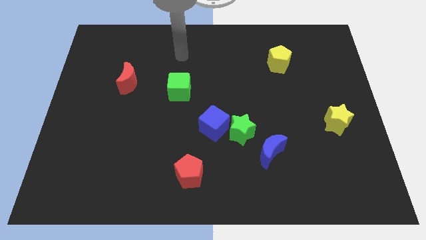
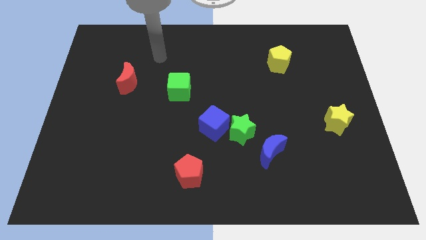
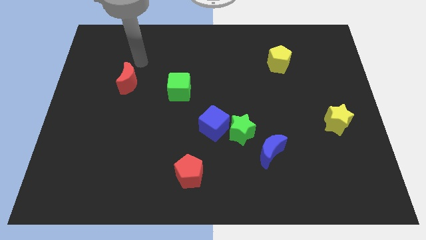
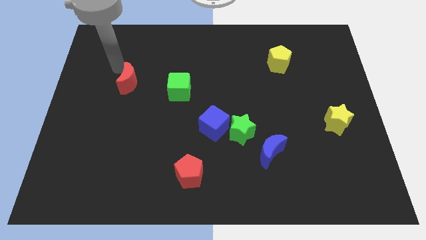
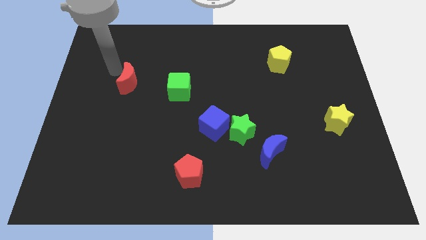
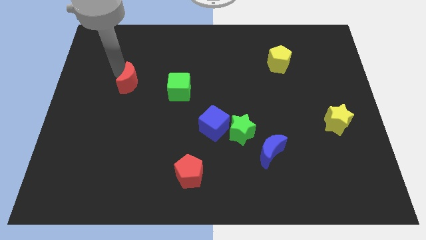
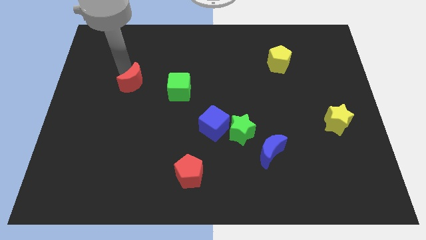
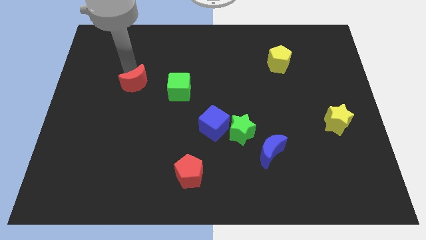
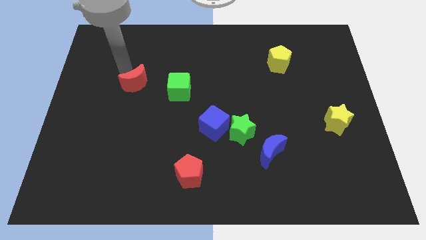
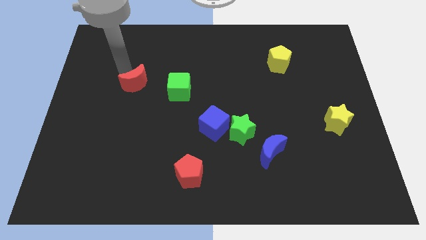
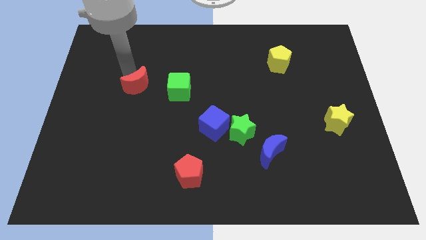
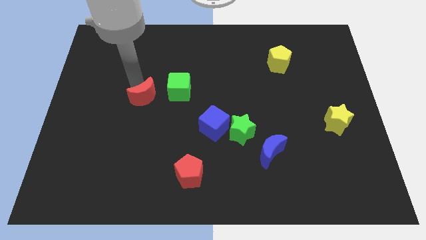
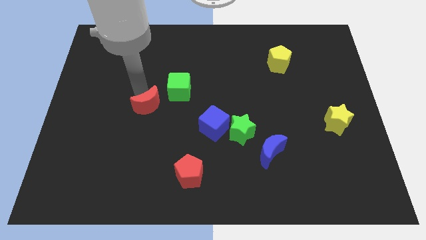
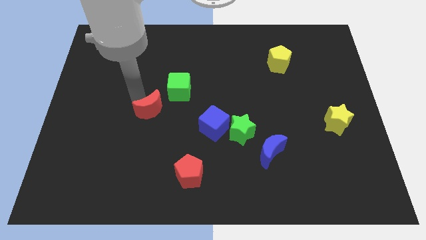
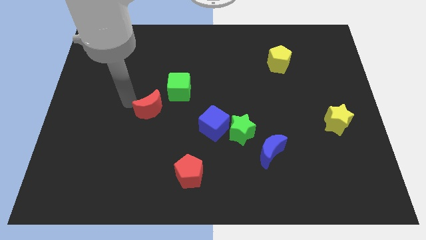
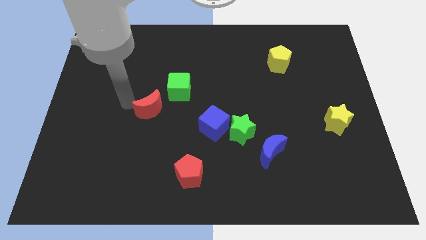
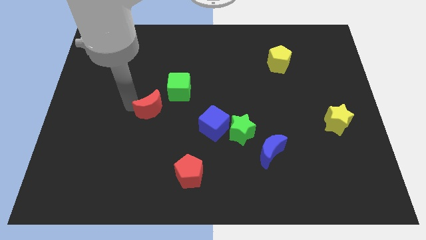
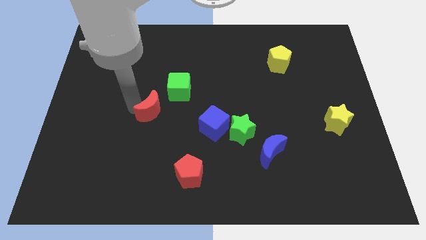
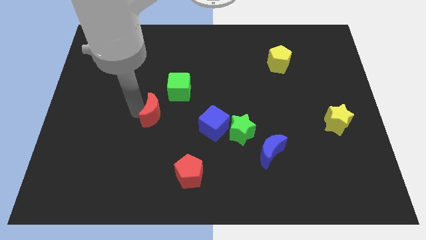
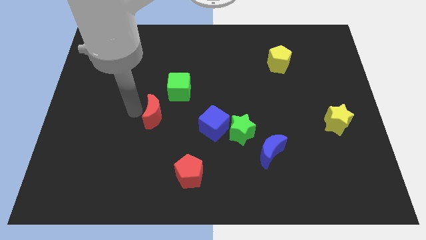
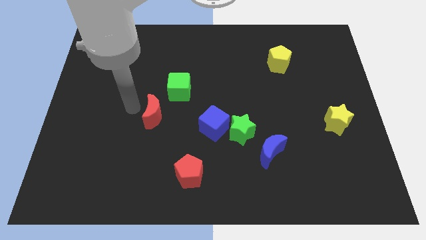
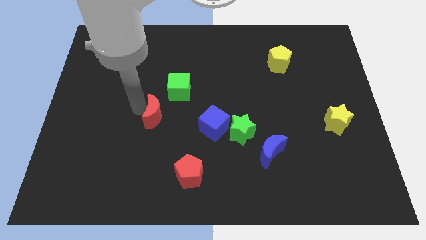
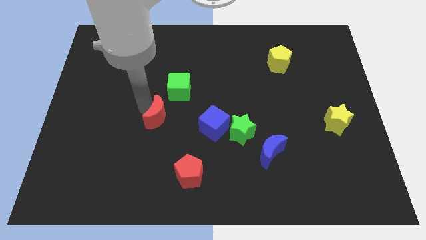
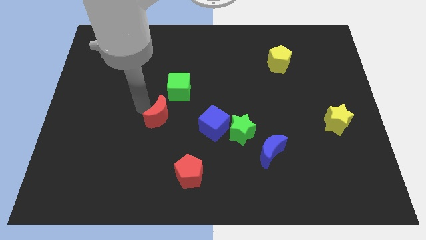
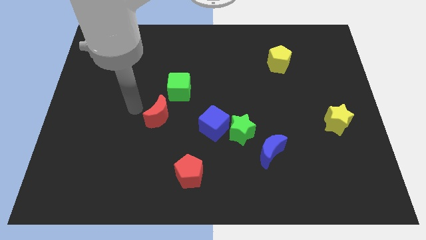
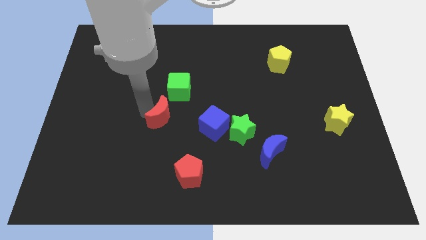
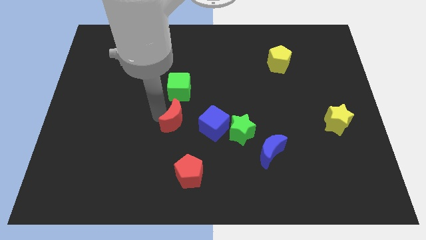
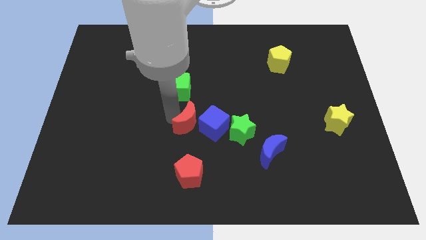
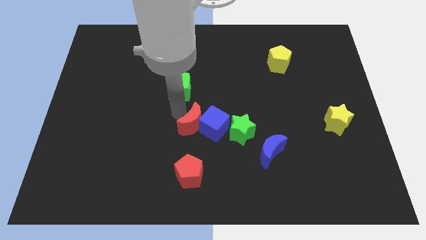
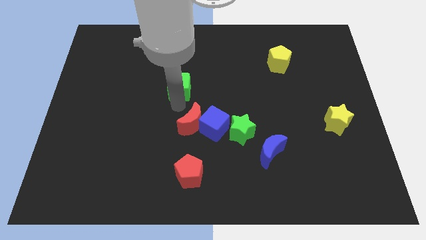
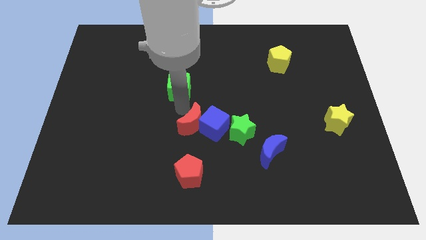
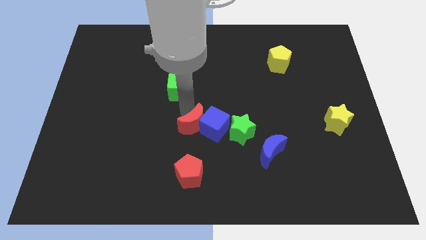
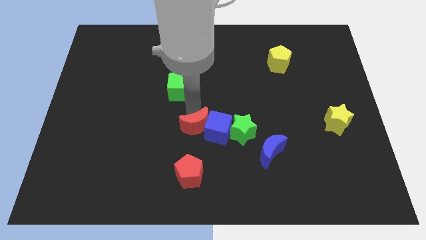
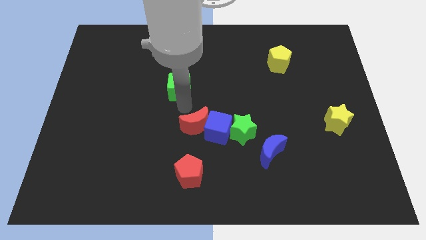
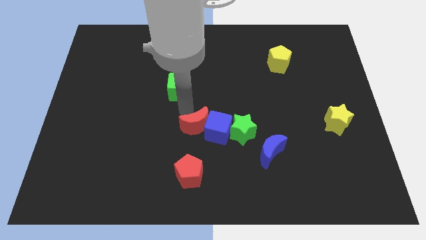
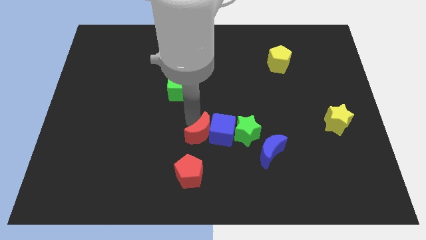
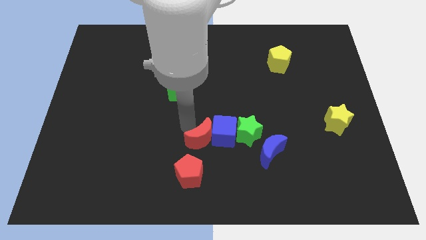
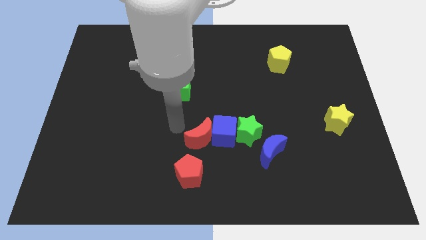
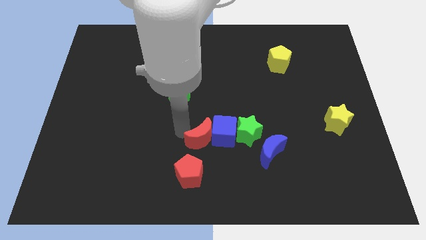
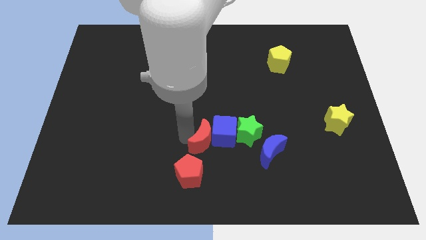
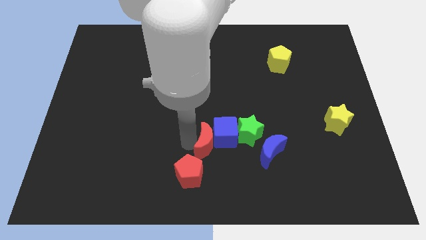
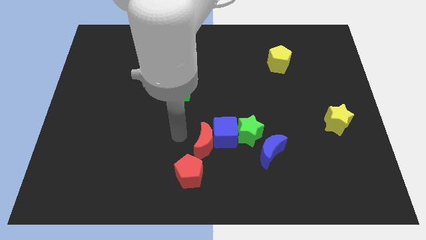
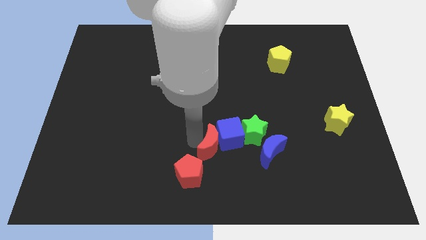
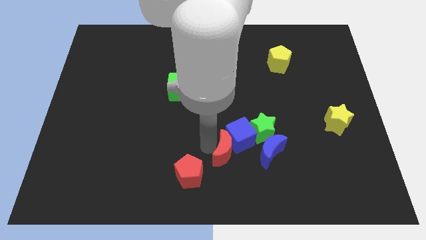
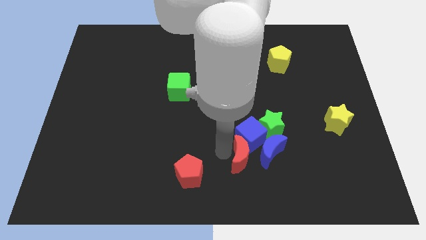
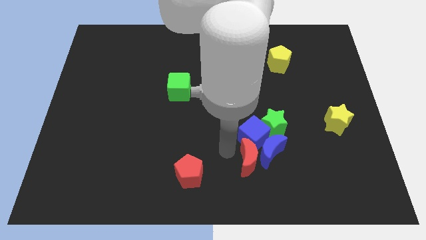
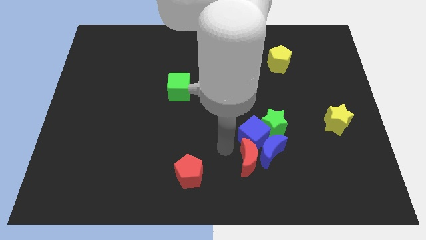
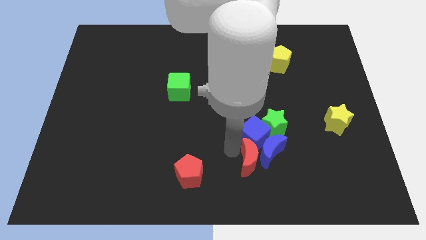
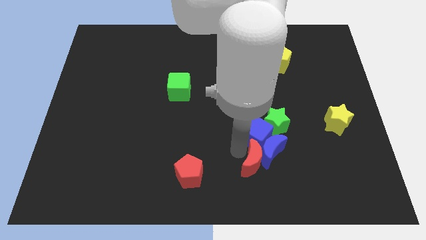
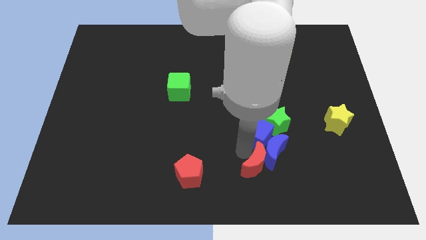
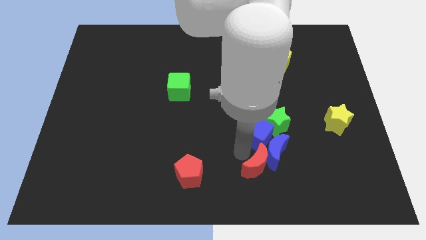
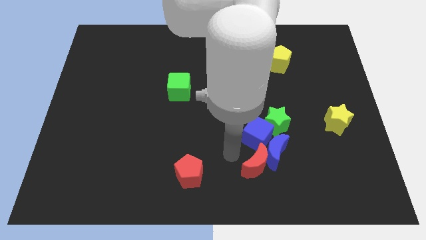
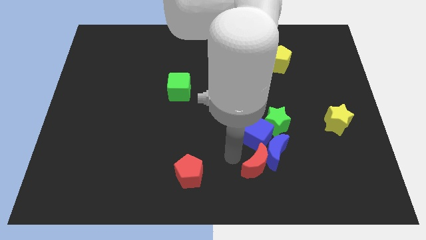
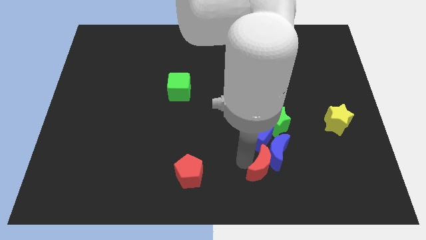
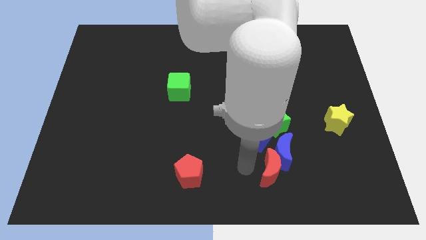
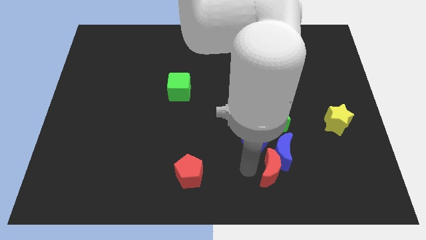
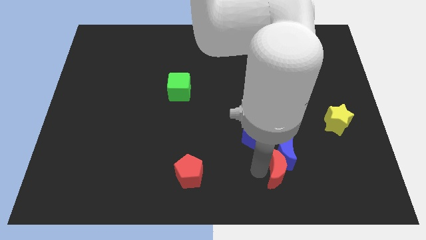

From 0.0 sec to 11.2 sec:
put the red moon to the bottom right side of the blue moon

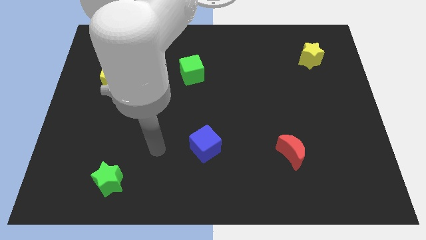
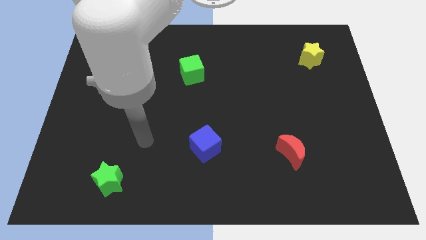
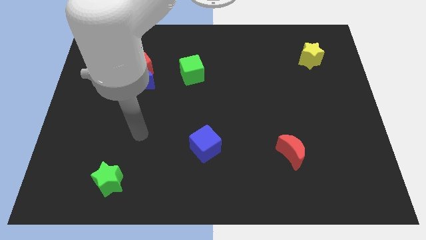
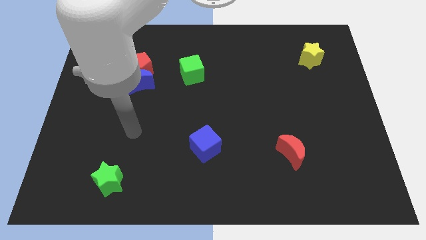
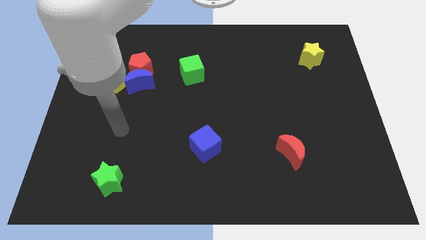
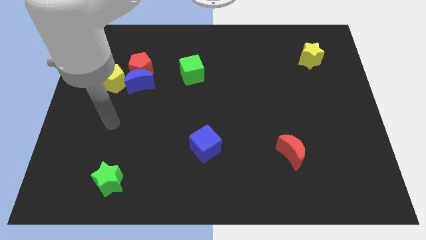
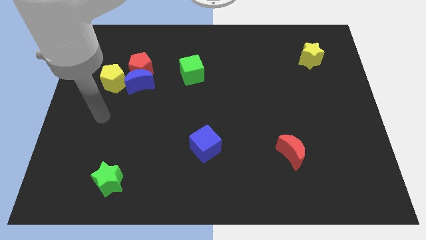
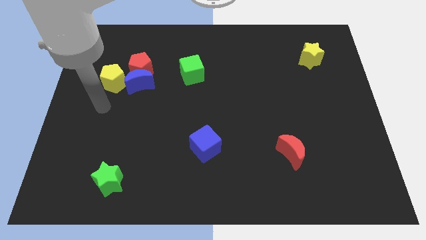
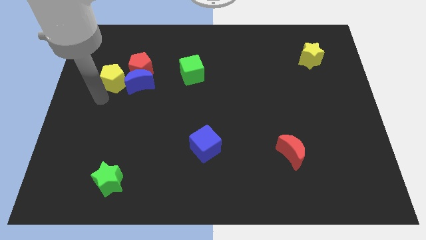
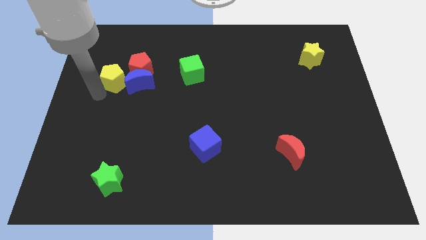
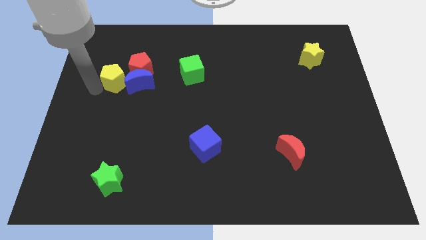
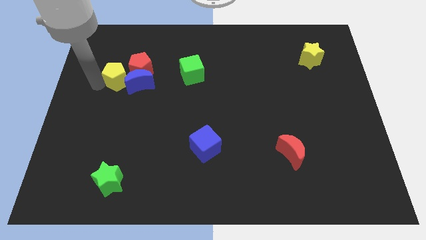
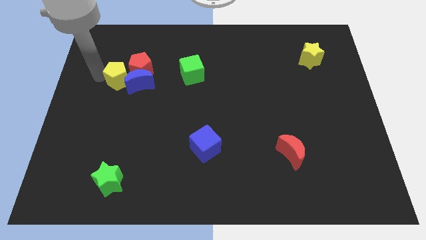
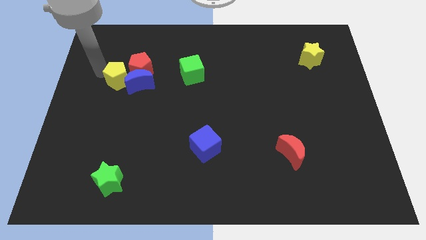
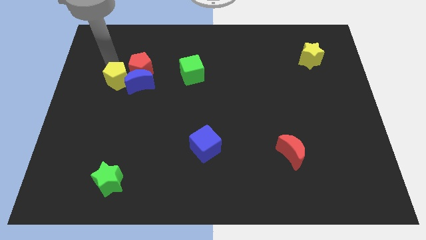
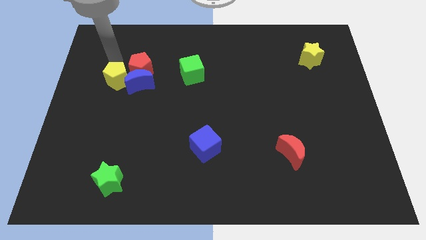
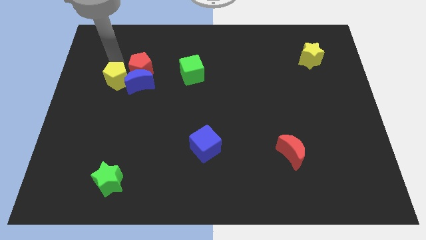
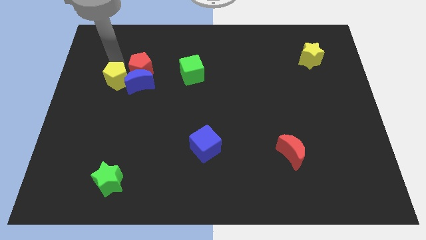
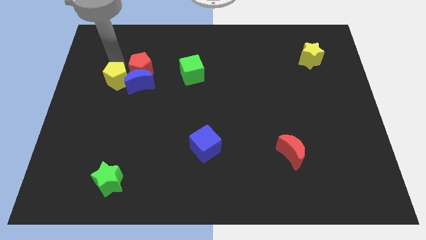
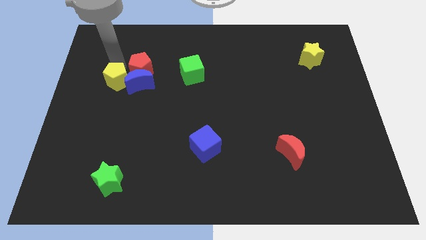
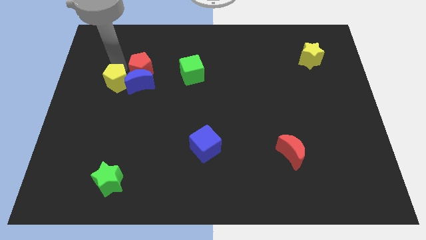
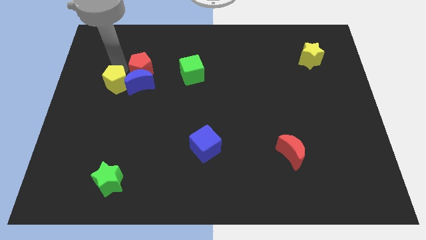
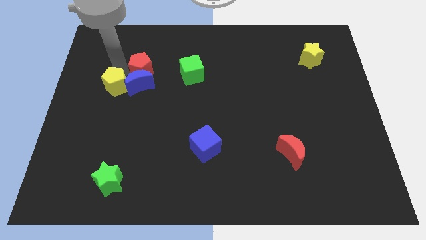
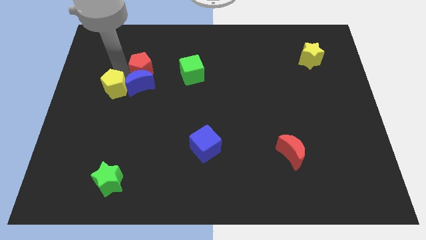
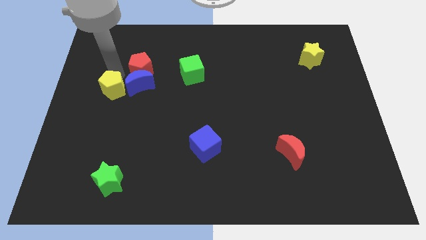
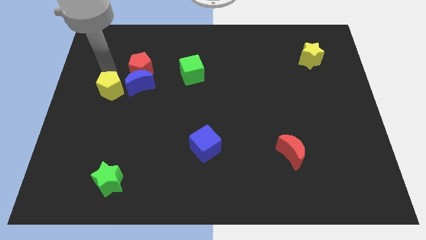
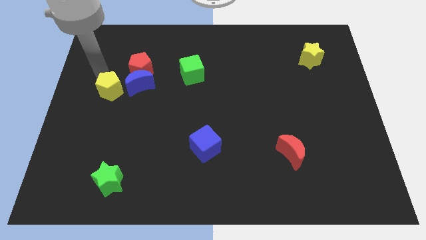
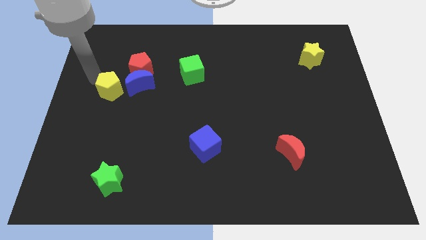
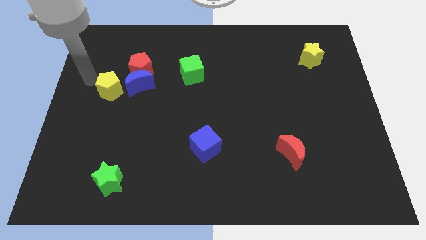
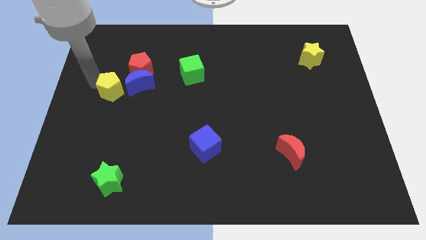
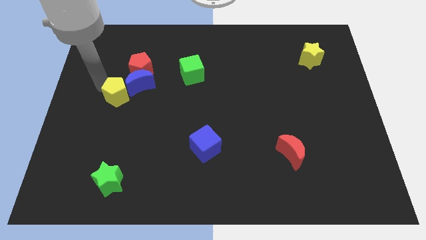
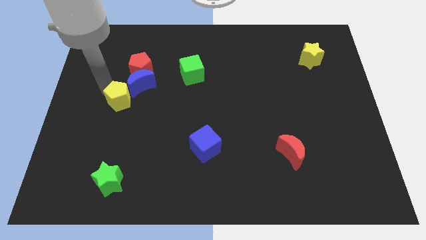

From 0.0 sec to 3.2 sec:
slide the yellow pentagon to the bottom side of the red pentagon
